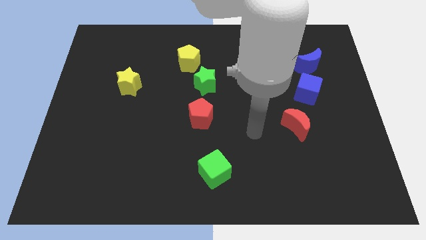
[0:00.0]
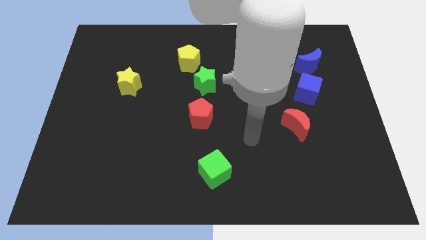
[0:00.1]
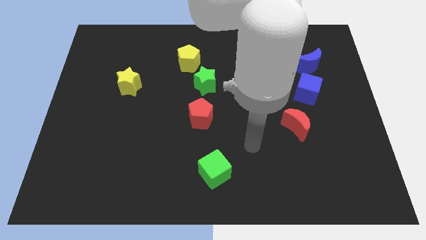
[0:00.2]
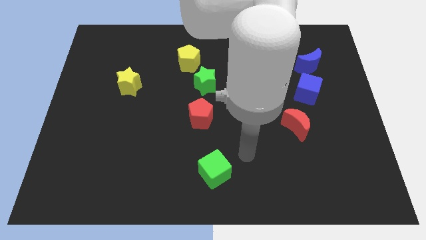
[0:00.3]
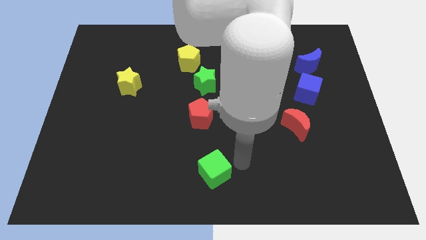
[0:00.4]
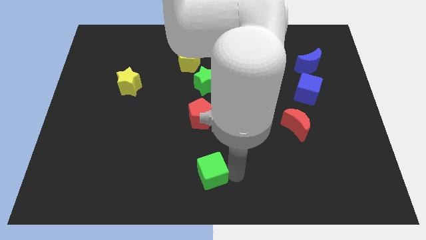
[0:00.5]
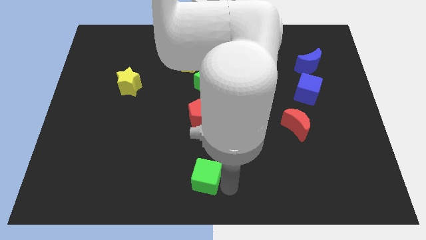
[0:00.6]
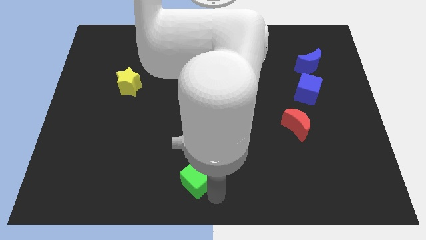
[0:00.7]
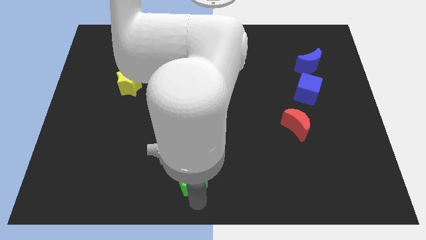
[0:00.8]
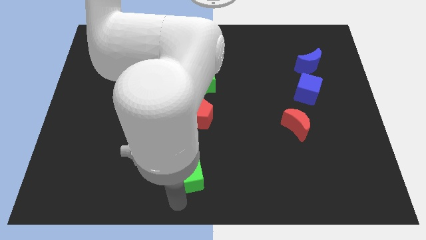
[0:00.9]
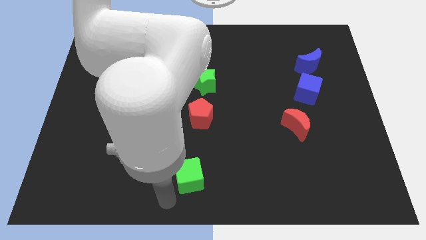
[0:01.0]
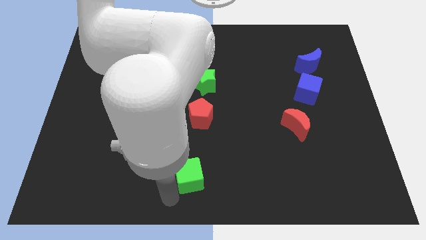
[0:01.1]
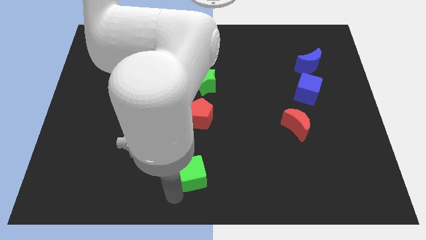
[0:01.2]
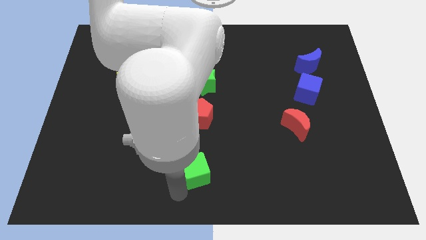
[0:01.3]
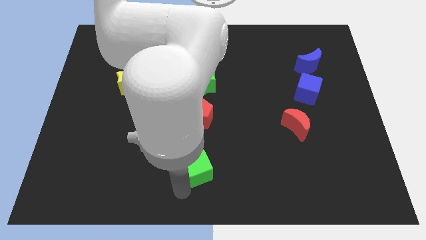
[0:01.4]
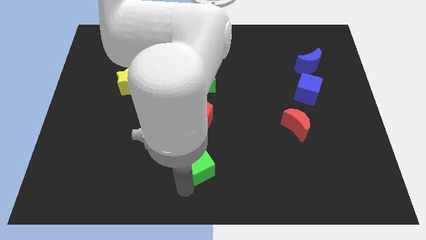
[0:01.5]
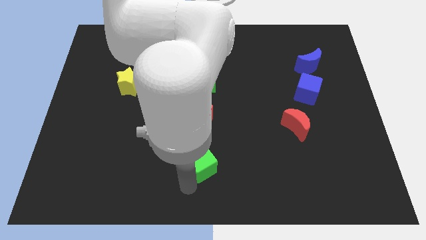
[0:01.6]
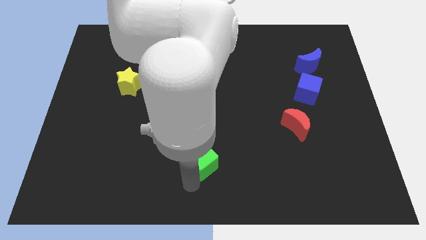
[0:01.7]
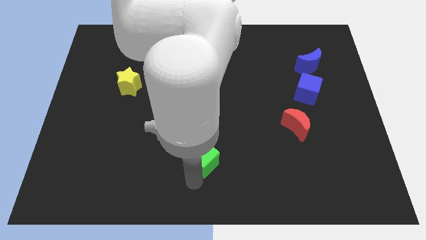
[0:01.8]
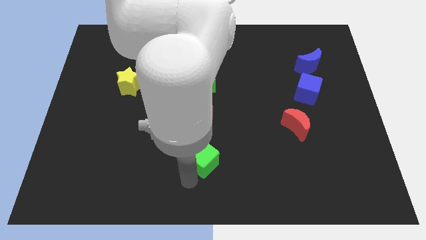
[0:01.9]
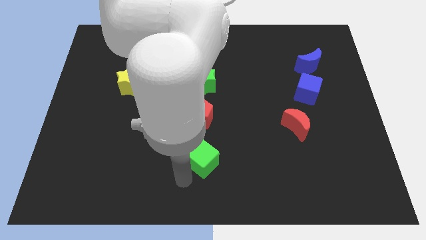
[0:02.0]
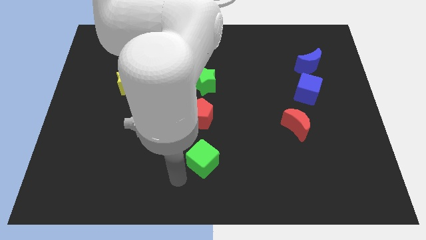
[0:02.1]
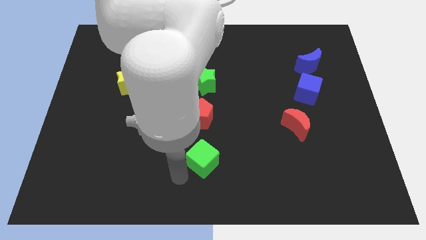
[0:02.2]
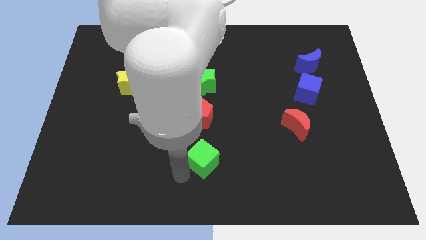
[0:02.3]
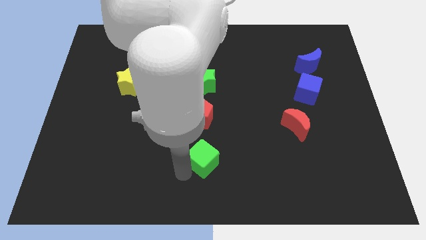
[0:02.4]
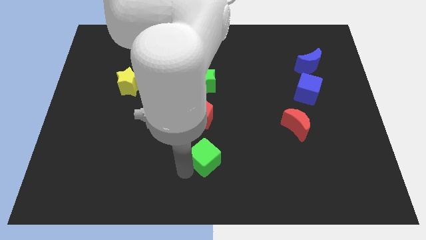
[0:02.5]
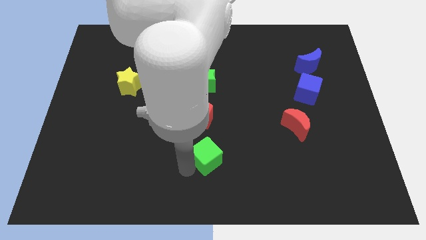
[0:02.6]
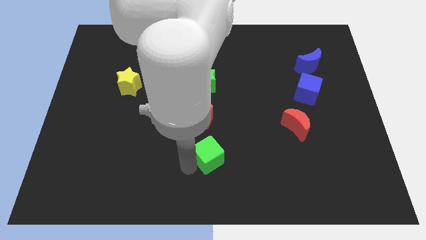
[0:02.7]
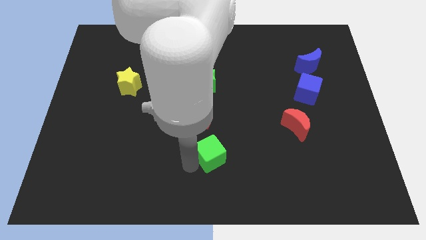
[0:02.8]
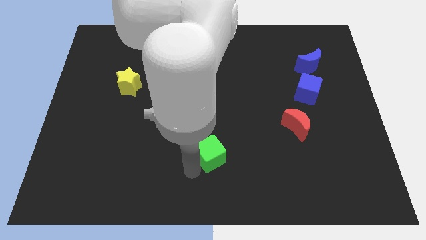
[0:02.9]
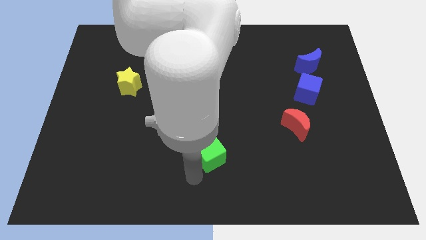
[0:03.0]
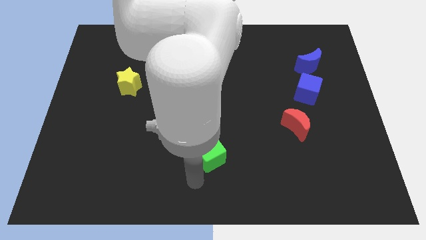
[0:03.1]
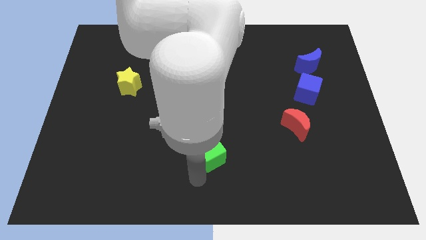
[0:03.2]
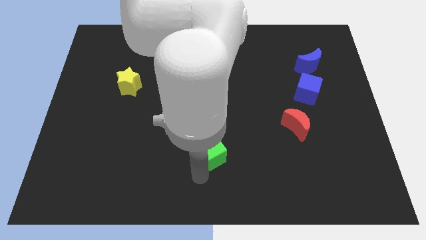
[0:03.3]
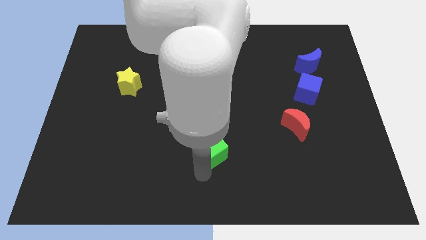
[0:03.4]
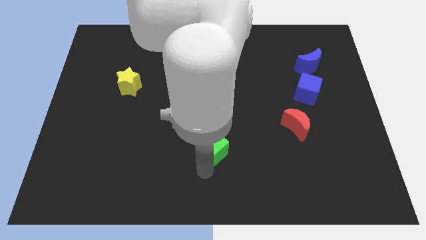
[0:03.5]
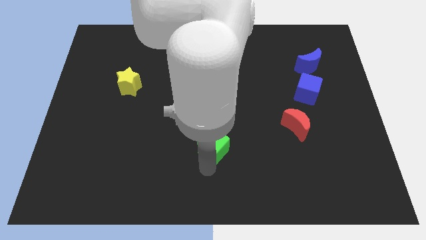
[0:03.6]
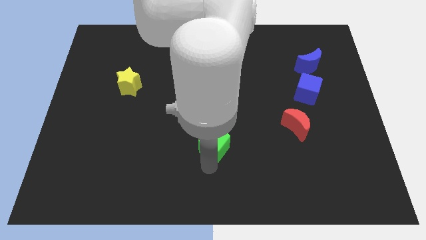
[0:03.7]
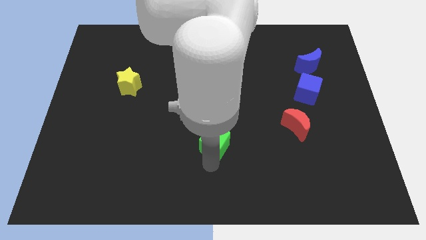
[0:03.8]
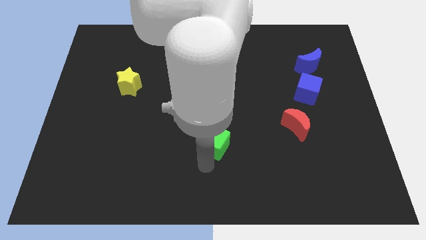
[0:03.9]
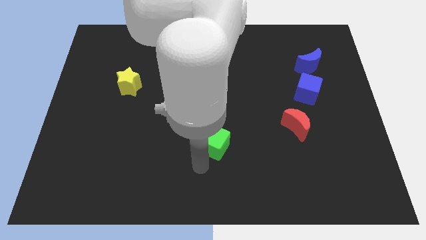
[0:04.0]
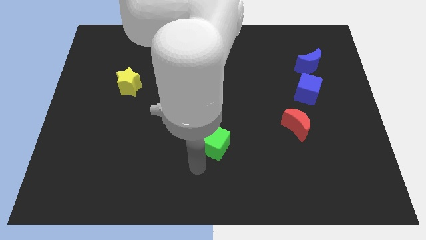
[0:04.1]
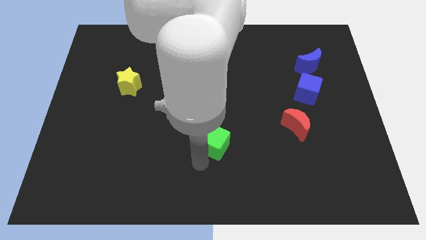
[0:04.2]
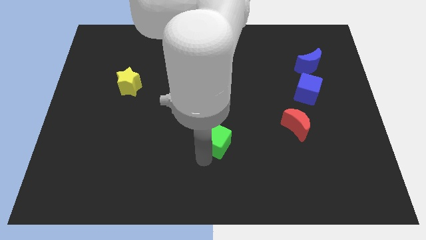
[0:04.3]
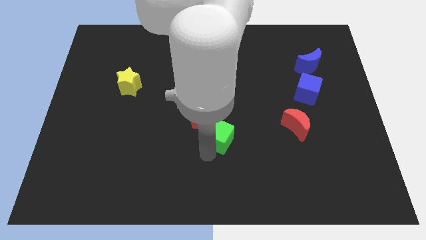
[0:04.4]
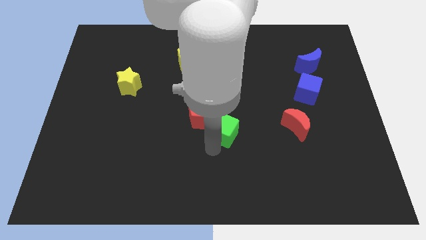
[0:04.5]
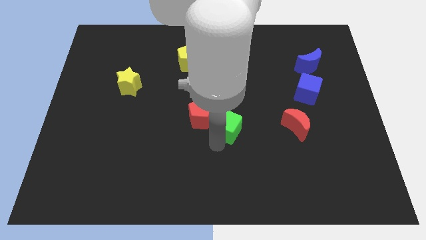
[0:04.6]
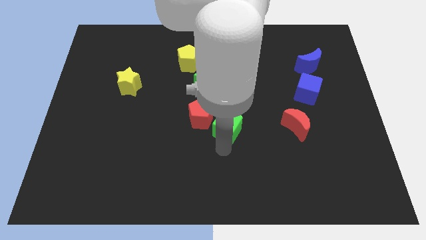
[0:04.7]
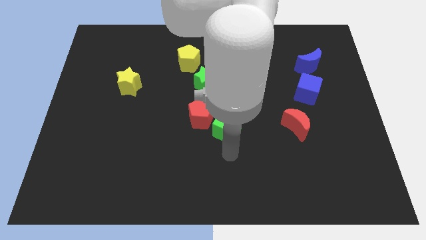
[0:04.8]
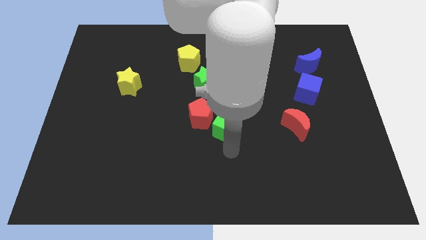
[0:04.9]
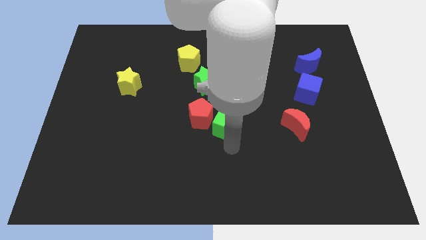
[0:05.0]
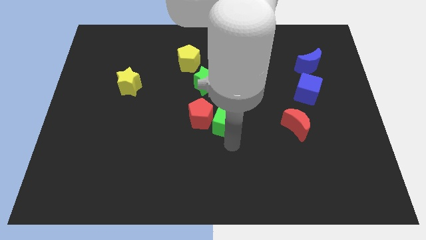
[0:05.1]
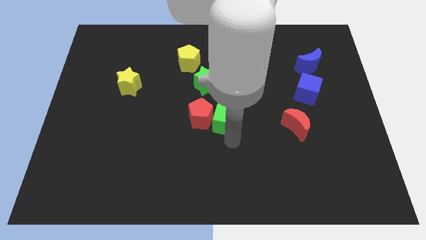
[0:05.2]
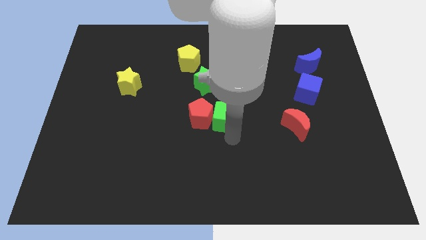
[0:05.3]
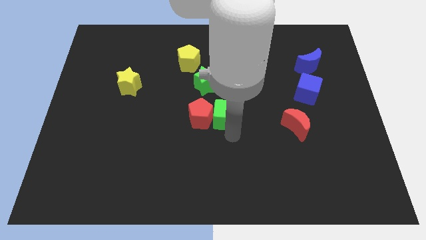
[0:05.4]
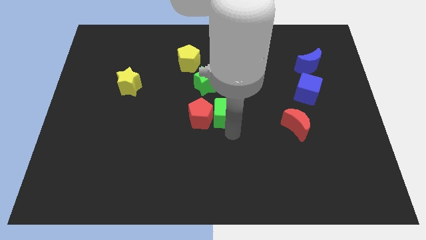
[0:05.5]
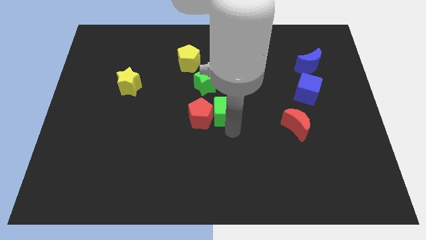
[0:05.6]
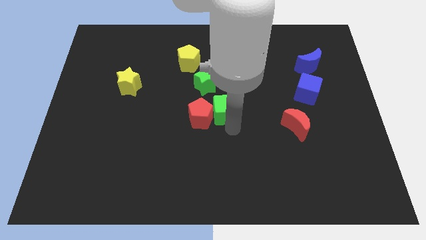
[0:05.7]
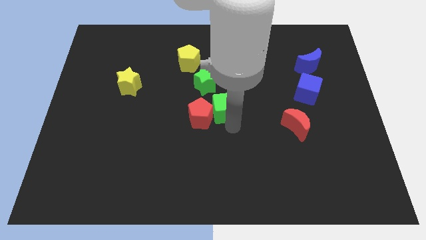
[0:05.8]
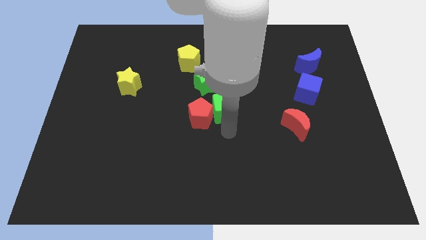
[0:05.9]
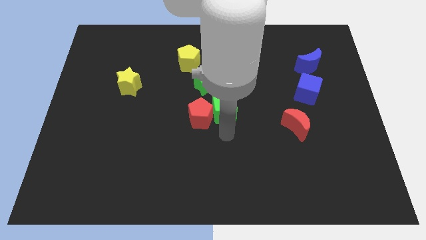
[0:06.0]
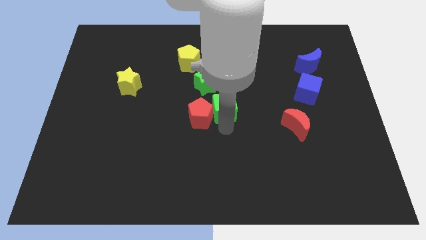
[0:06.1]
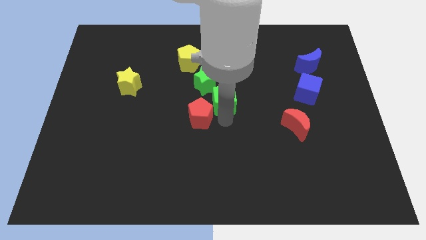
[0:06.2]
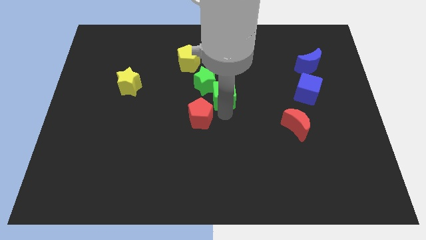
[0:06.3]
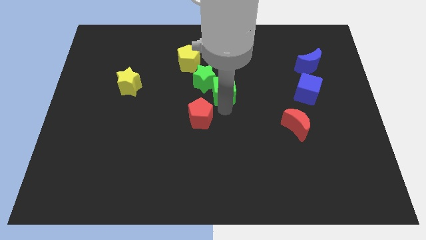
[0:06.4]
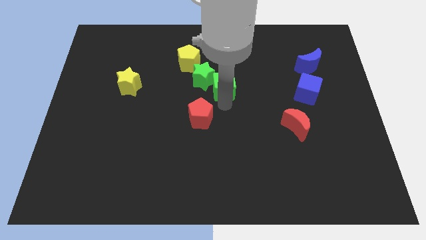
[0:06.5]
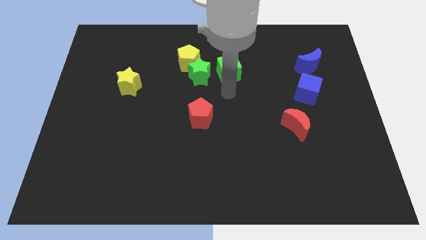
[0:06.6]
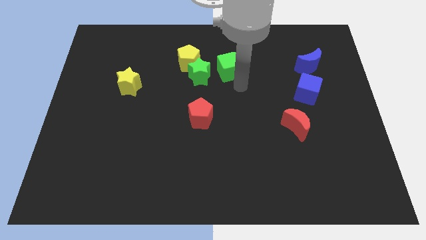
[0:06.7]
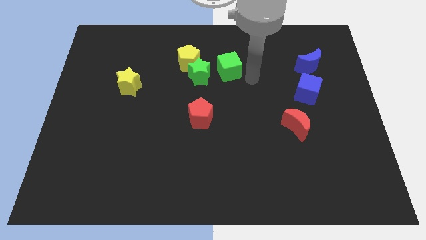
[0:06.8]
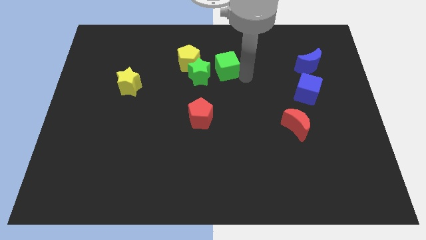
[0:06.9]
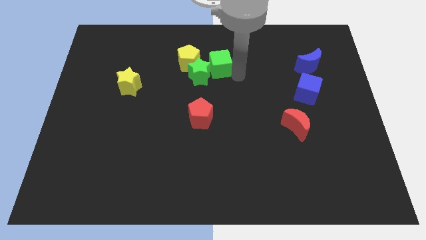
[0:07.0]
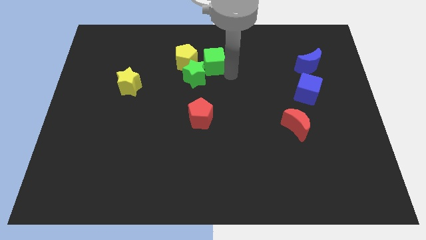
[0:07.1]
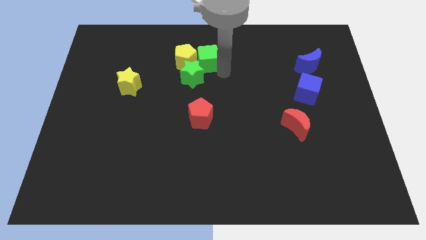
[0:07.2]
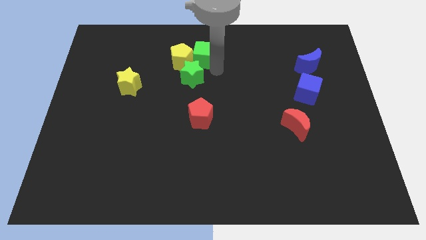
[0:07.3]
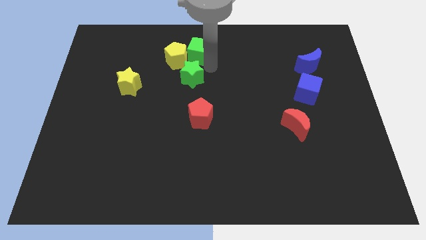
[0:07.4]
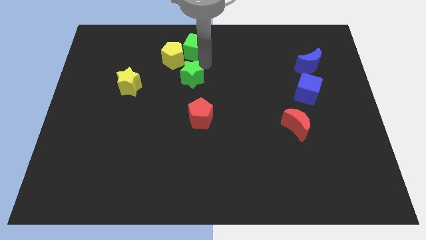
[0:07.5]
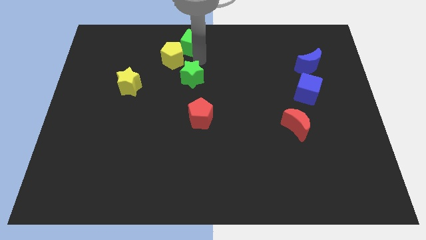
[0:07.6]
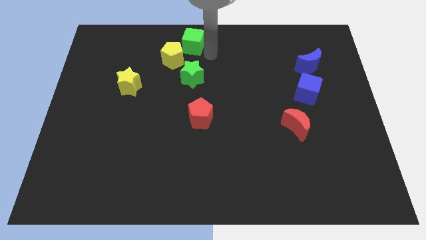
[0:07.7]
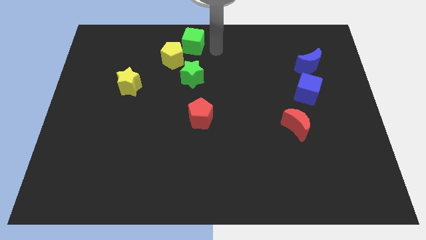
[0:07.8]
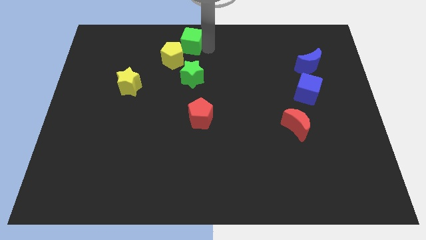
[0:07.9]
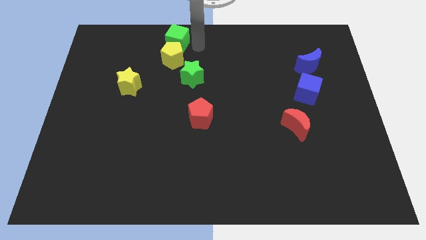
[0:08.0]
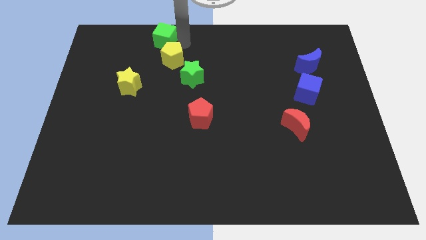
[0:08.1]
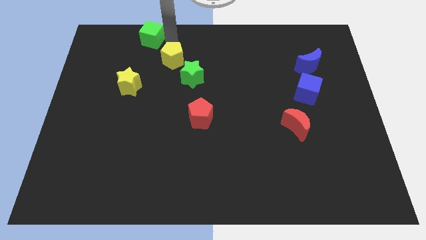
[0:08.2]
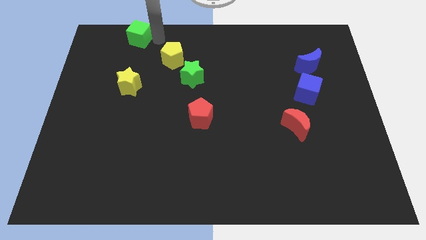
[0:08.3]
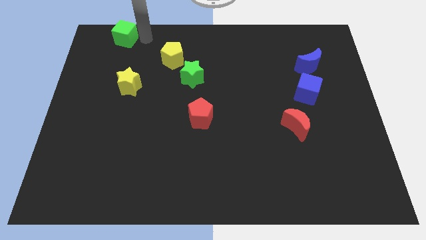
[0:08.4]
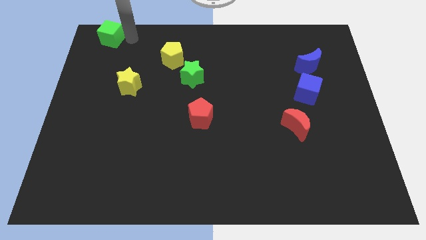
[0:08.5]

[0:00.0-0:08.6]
slide the green cube to the top left
